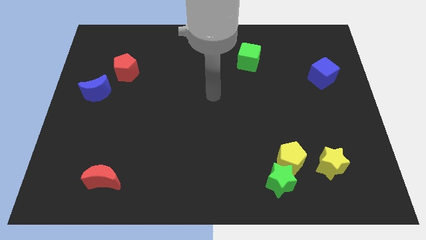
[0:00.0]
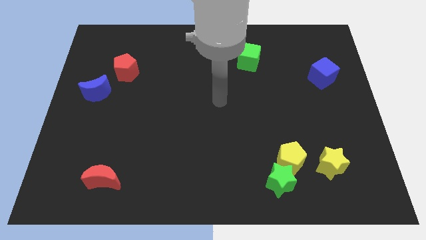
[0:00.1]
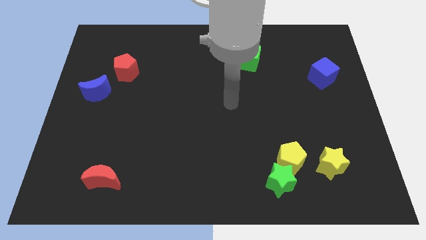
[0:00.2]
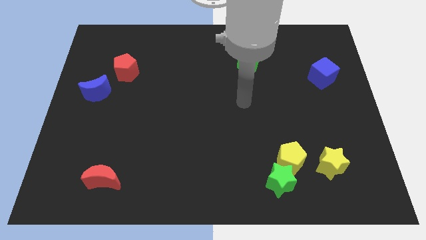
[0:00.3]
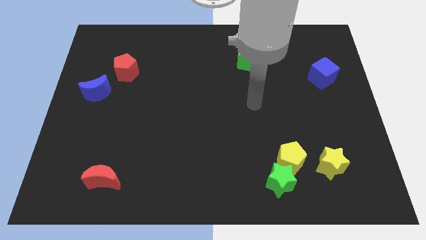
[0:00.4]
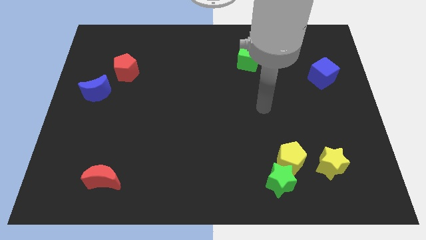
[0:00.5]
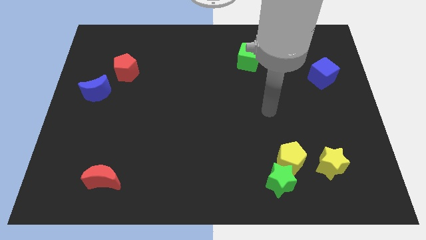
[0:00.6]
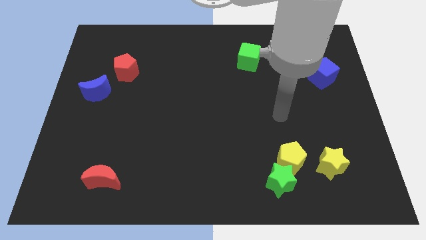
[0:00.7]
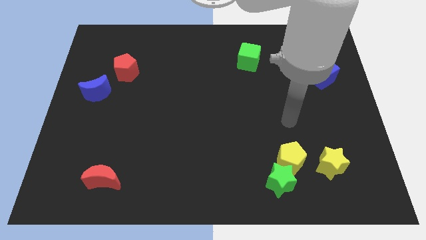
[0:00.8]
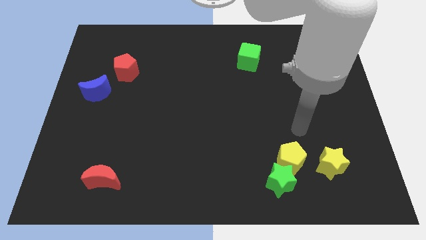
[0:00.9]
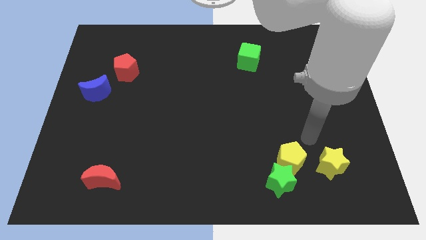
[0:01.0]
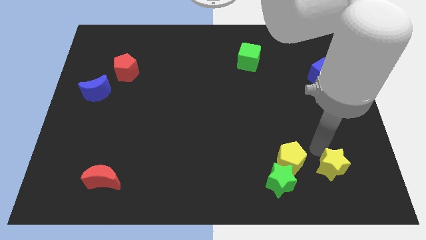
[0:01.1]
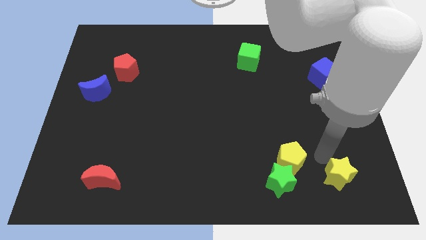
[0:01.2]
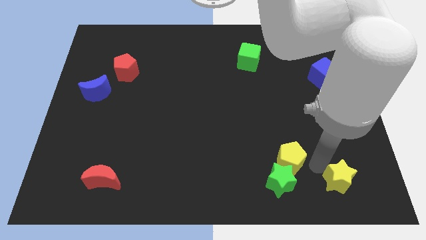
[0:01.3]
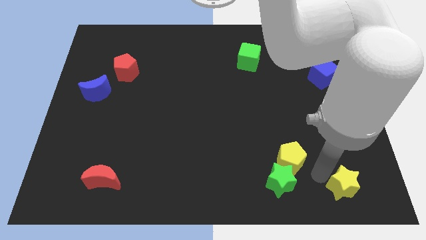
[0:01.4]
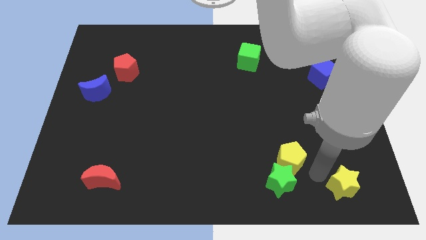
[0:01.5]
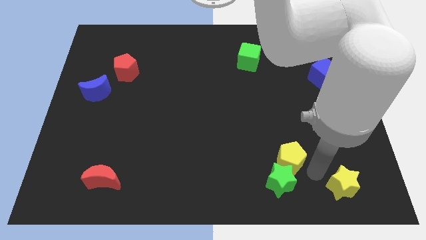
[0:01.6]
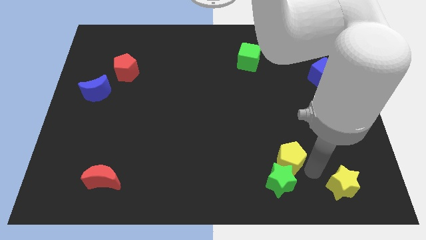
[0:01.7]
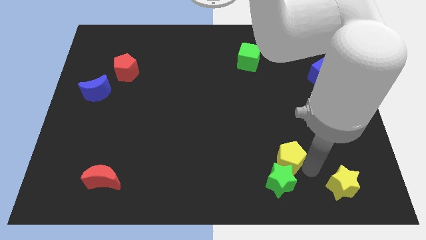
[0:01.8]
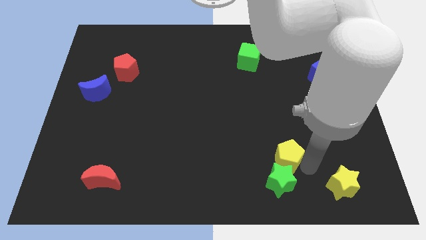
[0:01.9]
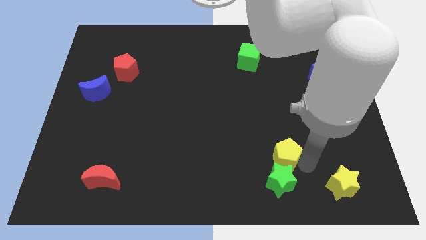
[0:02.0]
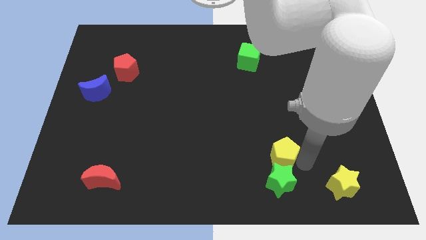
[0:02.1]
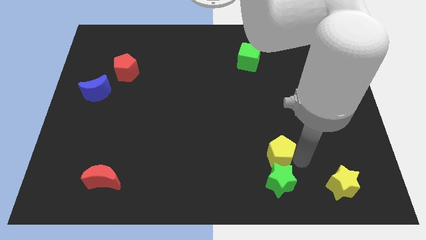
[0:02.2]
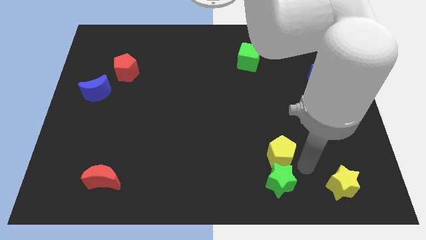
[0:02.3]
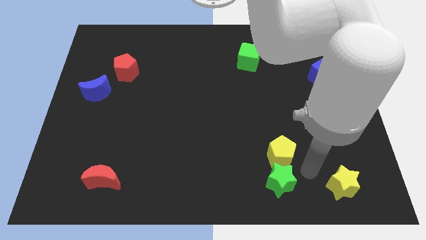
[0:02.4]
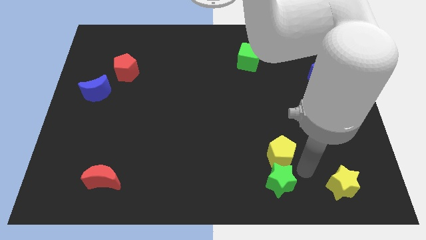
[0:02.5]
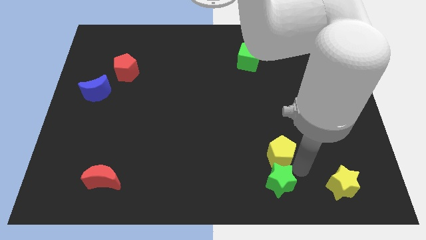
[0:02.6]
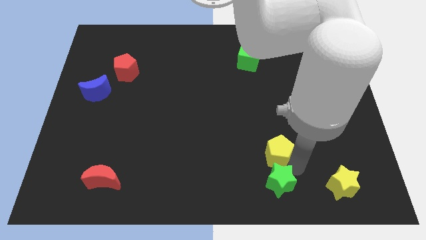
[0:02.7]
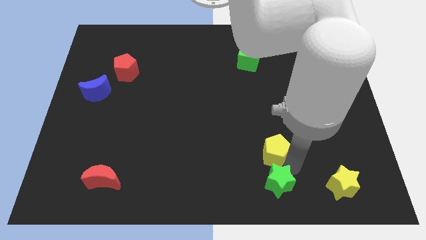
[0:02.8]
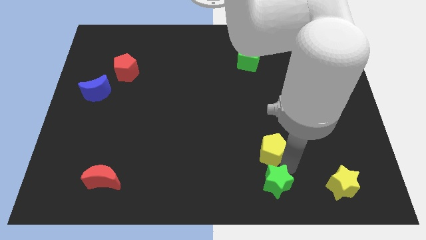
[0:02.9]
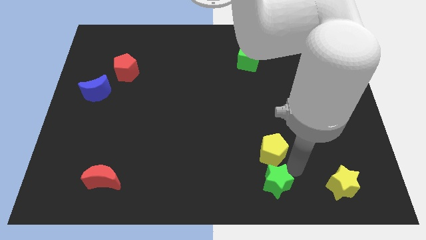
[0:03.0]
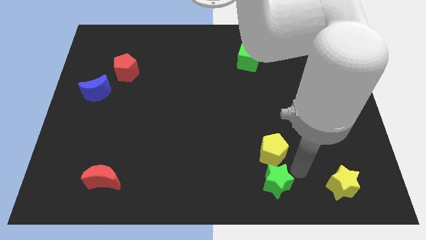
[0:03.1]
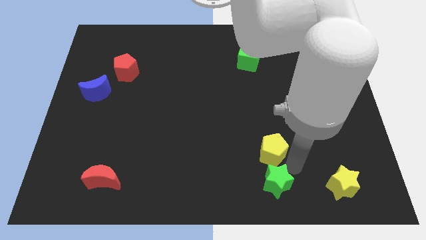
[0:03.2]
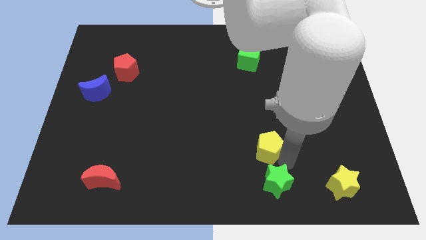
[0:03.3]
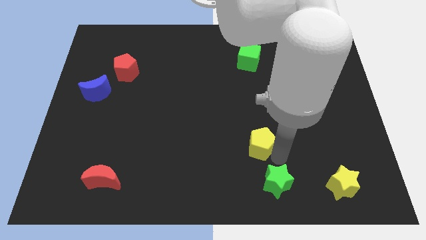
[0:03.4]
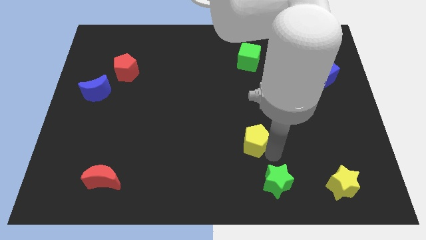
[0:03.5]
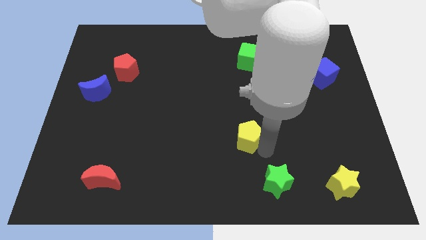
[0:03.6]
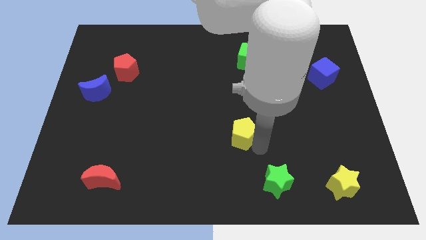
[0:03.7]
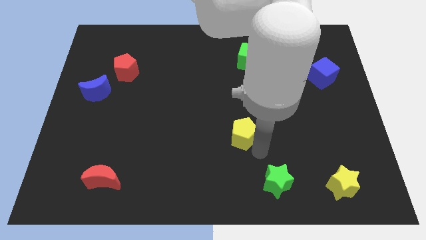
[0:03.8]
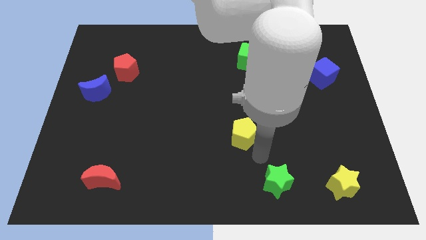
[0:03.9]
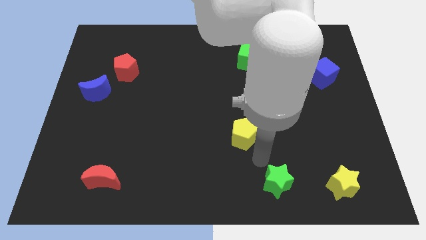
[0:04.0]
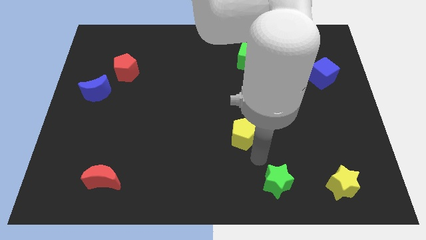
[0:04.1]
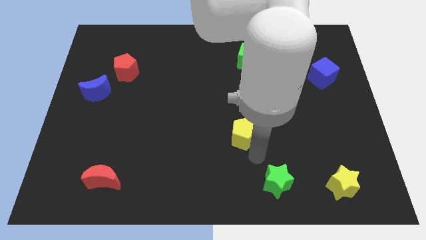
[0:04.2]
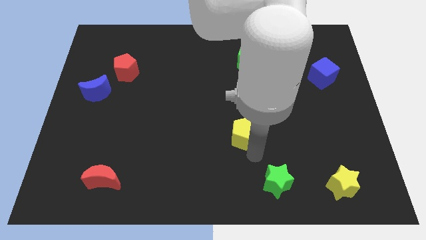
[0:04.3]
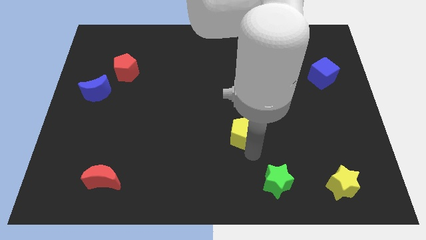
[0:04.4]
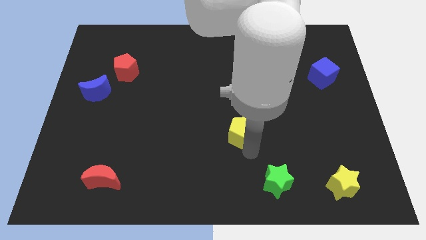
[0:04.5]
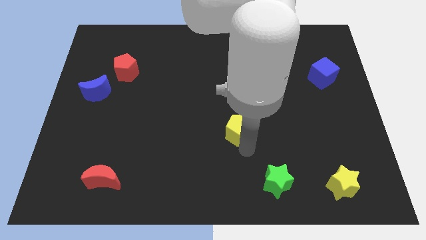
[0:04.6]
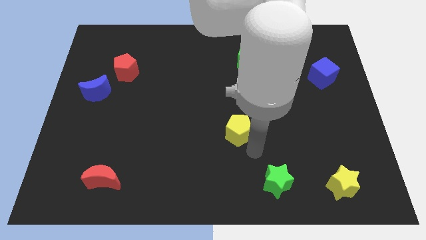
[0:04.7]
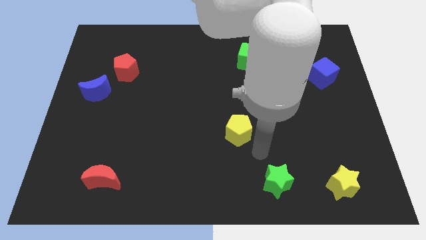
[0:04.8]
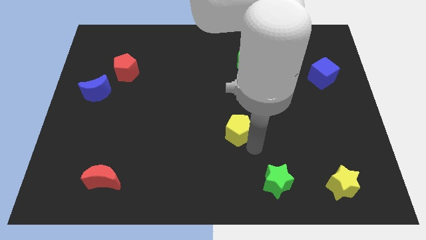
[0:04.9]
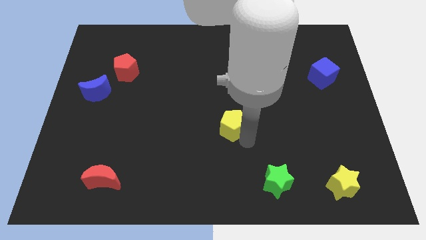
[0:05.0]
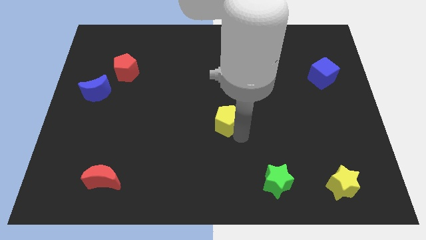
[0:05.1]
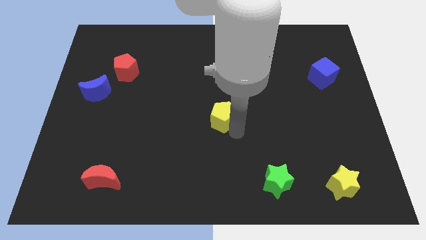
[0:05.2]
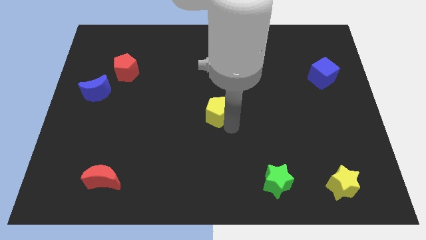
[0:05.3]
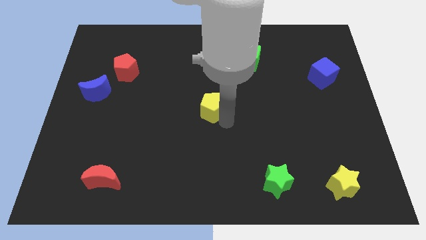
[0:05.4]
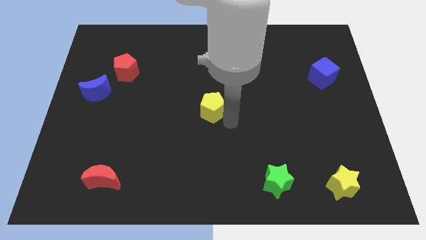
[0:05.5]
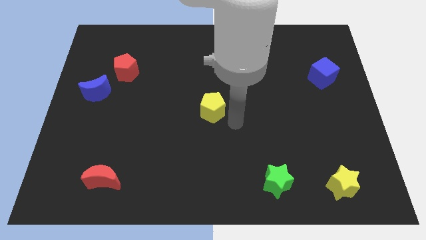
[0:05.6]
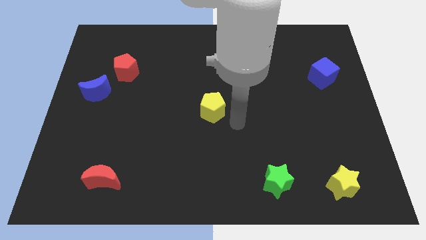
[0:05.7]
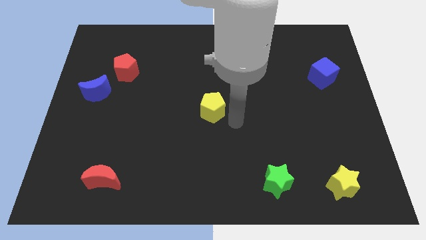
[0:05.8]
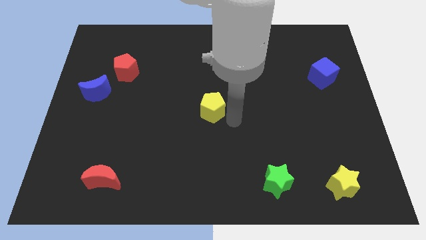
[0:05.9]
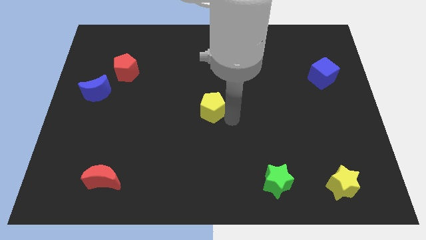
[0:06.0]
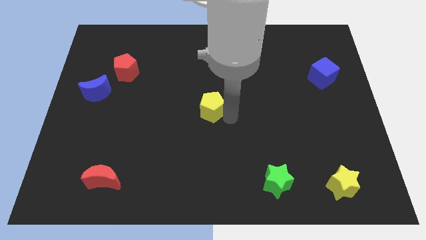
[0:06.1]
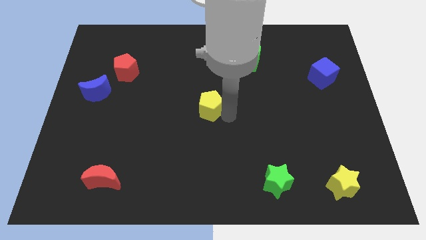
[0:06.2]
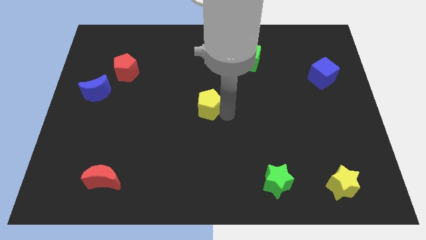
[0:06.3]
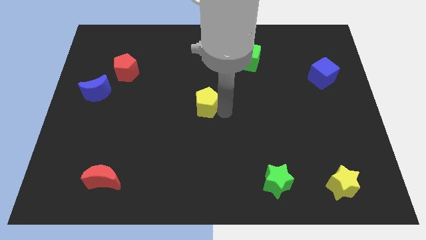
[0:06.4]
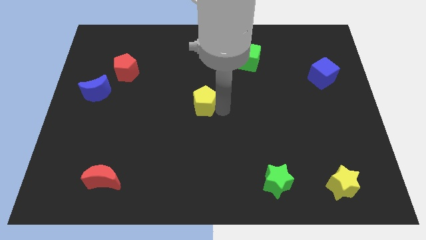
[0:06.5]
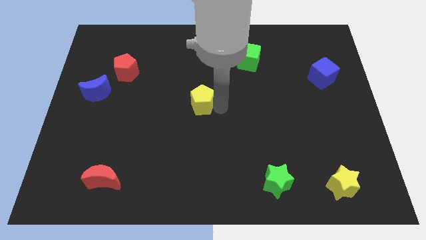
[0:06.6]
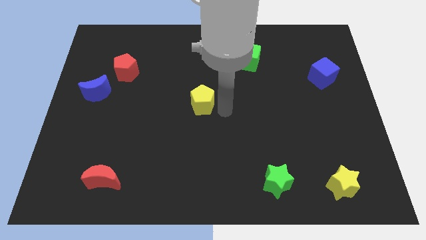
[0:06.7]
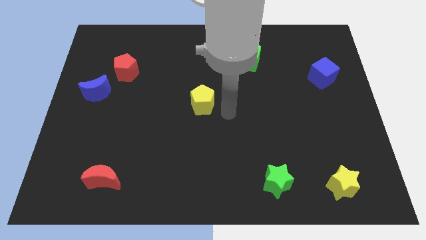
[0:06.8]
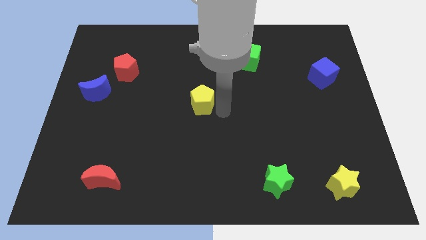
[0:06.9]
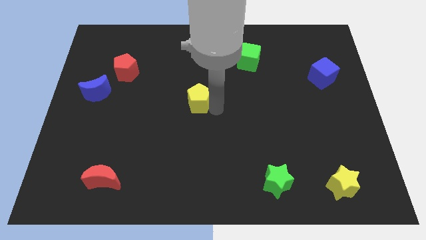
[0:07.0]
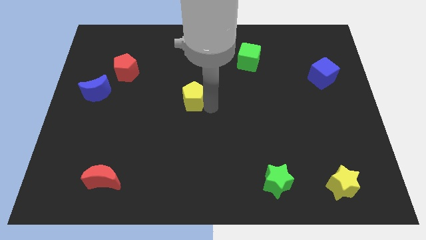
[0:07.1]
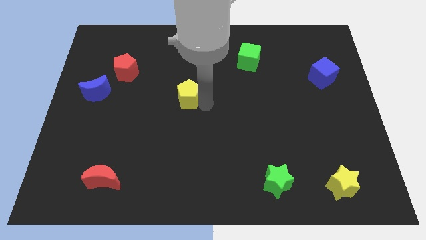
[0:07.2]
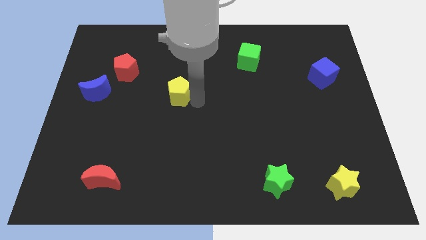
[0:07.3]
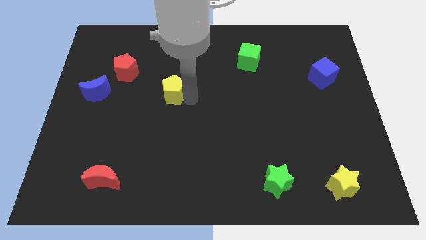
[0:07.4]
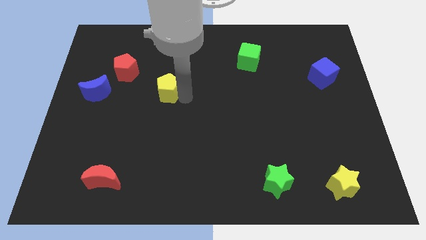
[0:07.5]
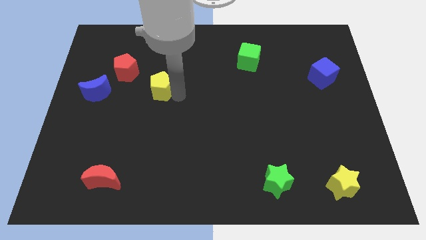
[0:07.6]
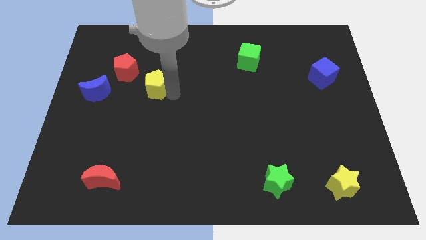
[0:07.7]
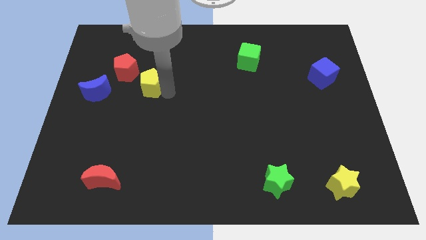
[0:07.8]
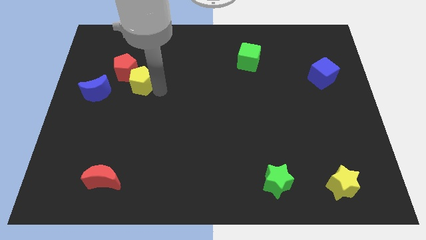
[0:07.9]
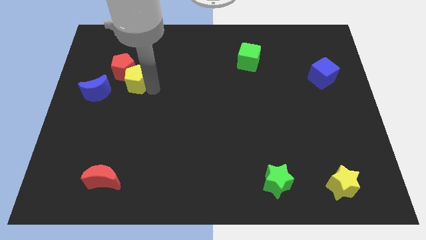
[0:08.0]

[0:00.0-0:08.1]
push the yellow pentagon towards the red pentagon
